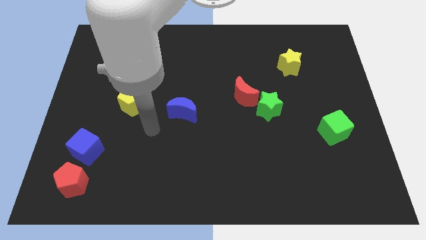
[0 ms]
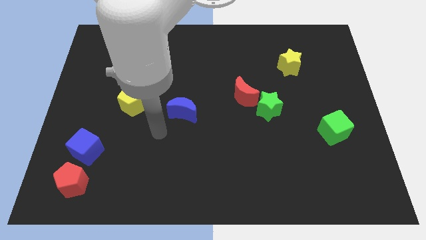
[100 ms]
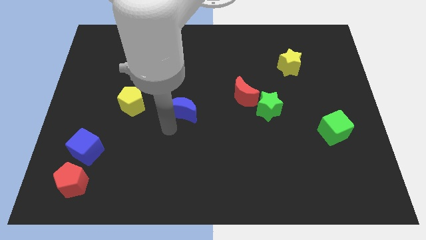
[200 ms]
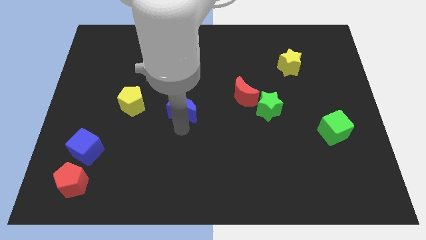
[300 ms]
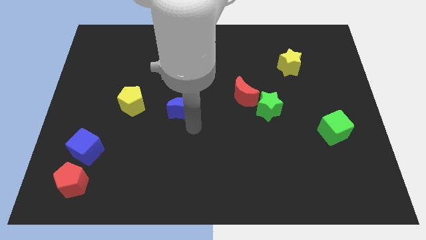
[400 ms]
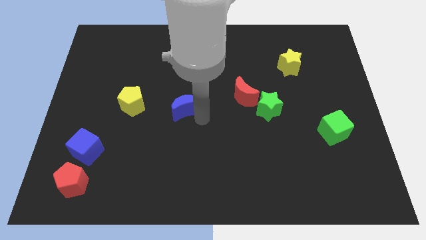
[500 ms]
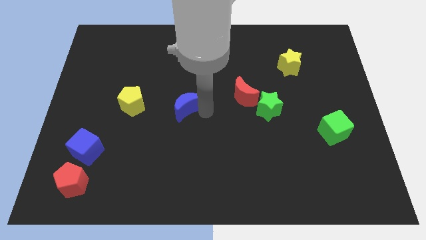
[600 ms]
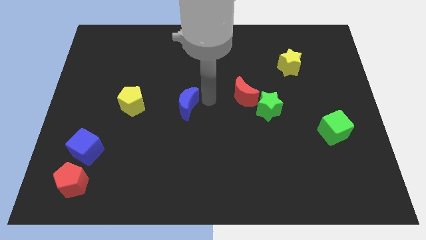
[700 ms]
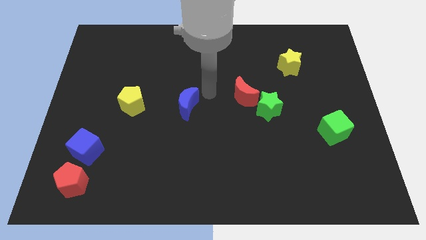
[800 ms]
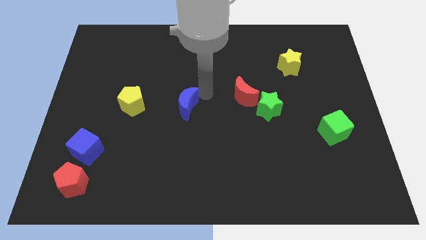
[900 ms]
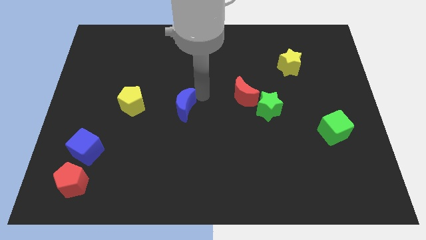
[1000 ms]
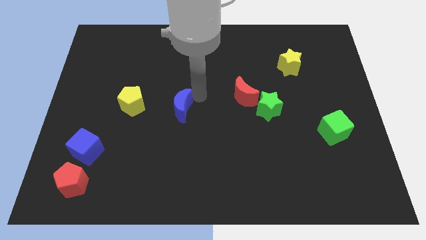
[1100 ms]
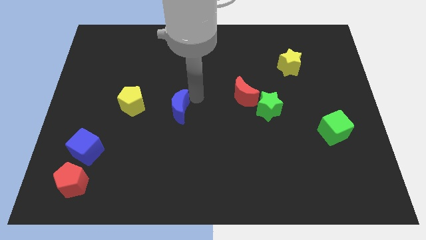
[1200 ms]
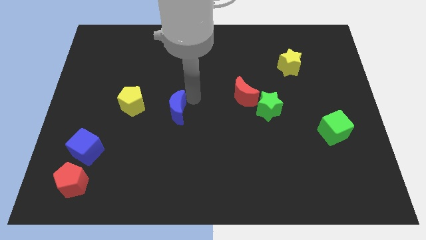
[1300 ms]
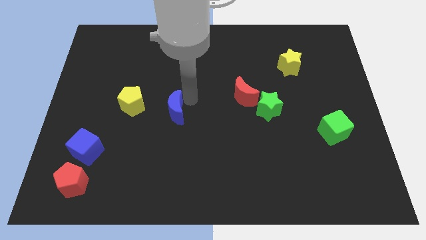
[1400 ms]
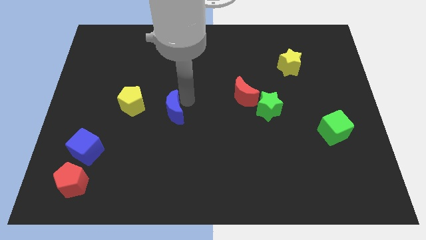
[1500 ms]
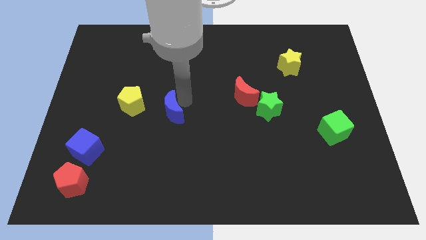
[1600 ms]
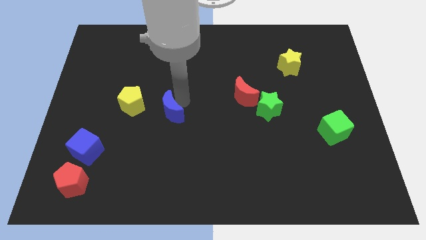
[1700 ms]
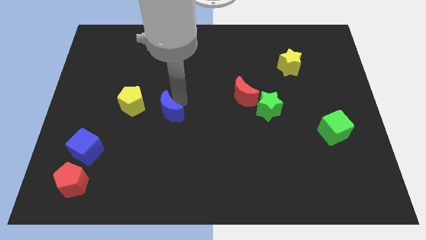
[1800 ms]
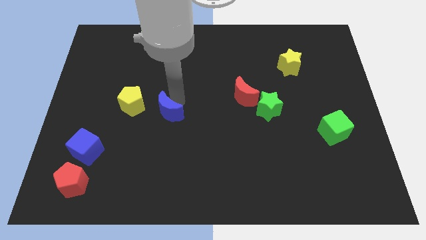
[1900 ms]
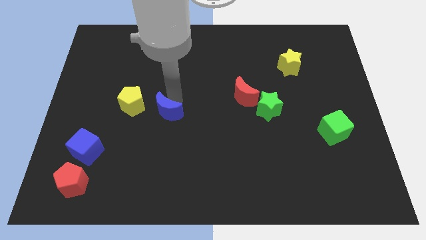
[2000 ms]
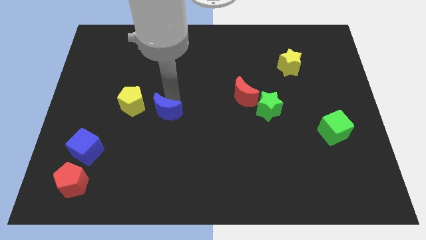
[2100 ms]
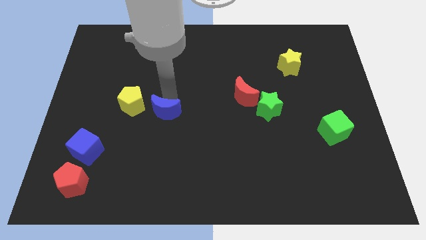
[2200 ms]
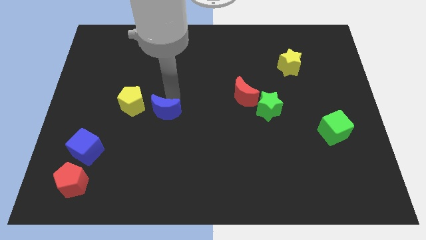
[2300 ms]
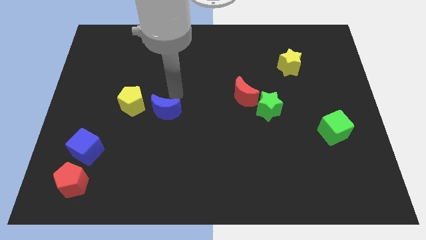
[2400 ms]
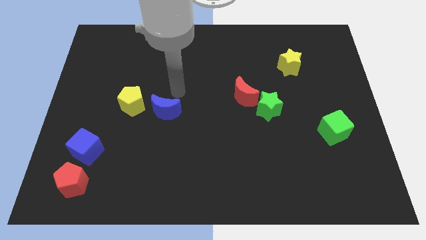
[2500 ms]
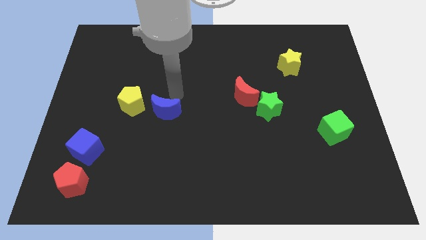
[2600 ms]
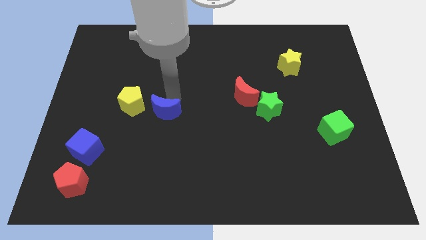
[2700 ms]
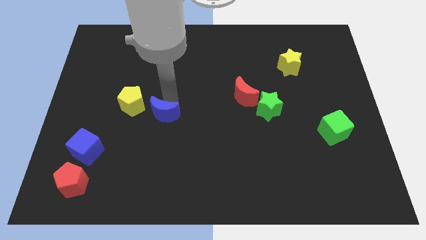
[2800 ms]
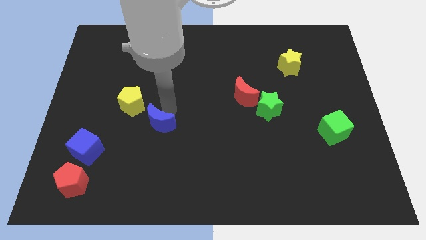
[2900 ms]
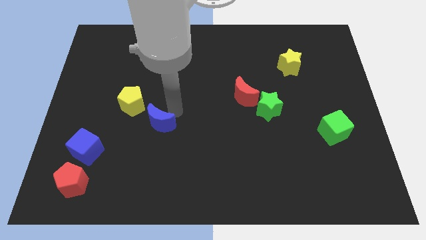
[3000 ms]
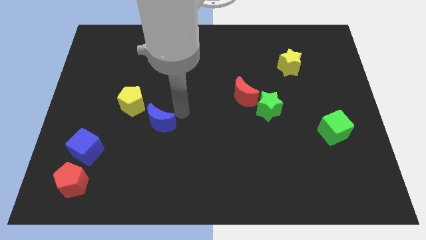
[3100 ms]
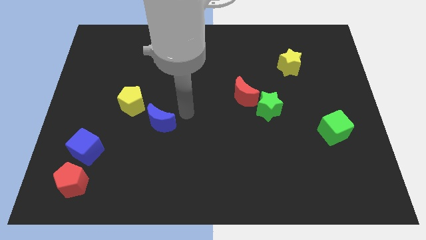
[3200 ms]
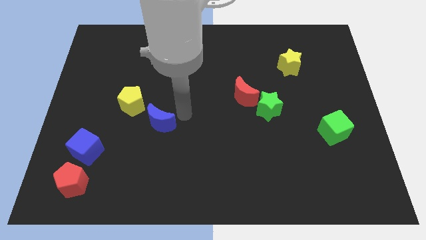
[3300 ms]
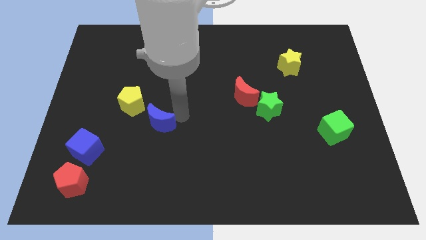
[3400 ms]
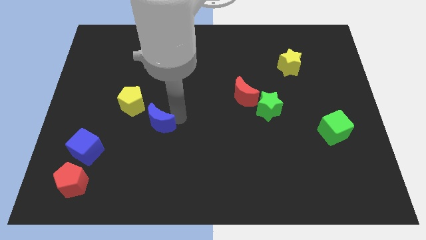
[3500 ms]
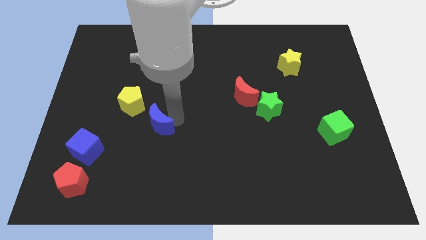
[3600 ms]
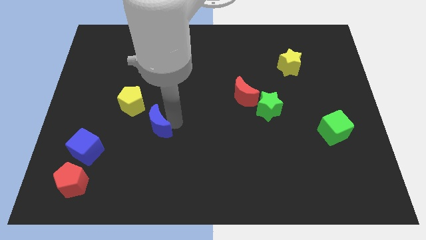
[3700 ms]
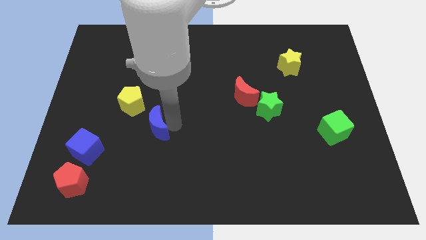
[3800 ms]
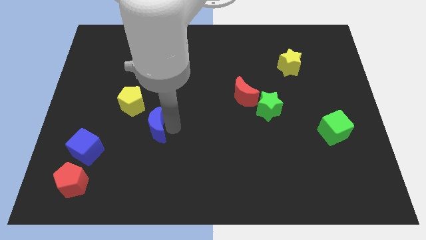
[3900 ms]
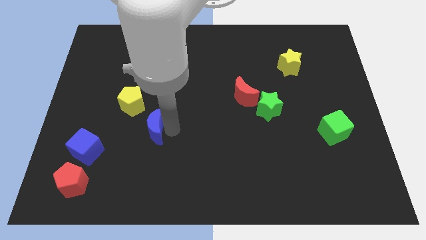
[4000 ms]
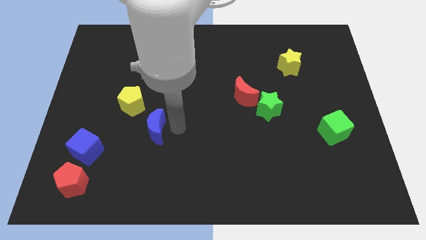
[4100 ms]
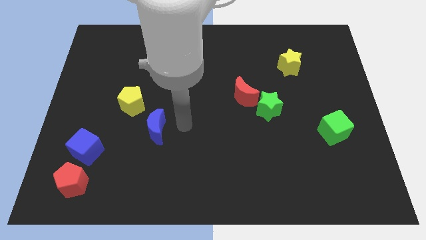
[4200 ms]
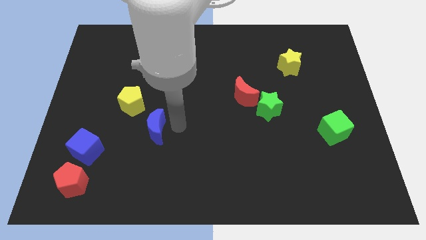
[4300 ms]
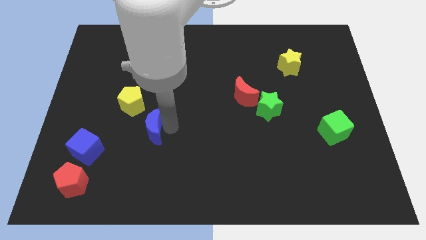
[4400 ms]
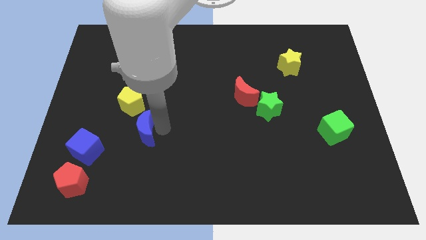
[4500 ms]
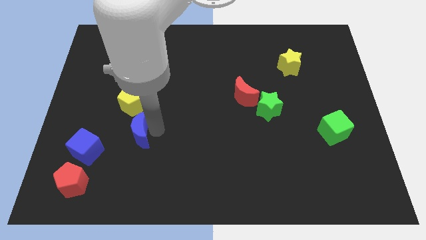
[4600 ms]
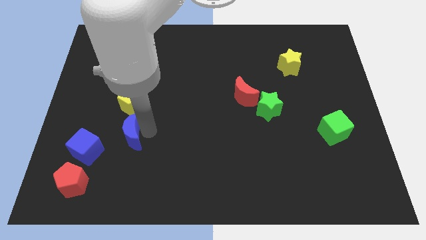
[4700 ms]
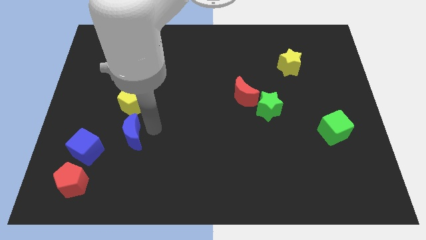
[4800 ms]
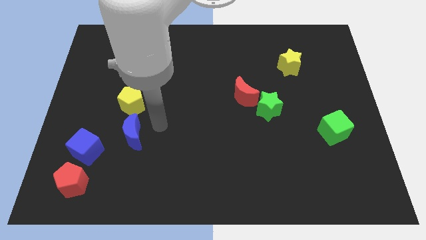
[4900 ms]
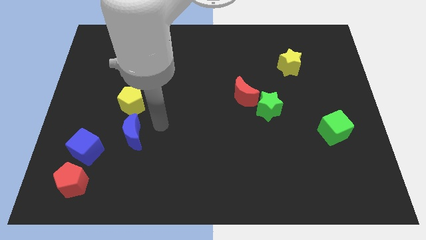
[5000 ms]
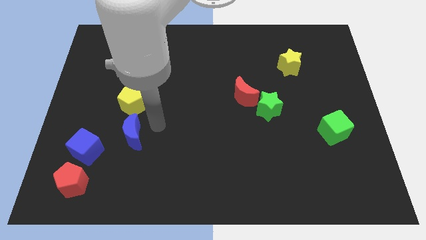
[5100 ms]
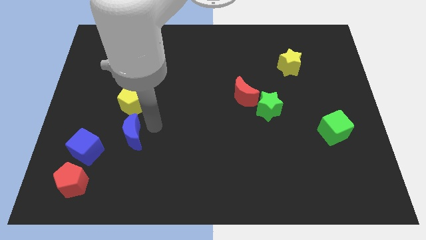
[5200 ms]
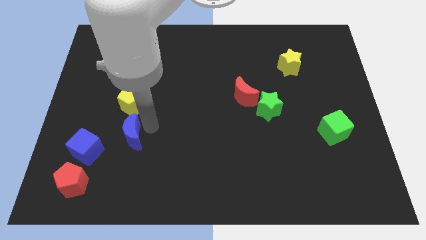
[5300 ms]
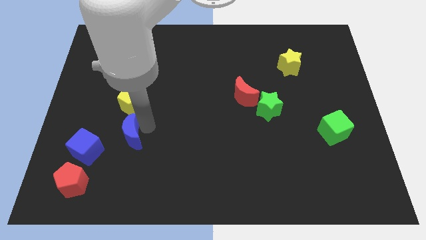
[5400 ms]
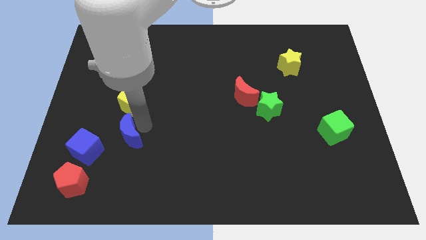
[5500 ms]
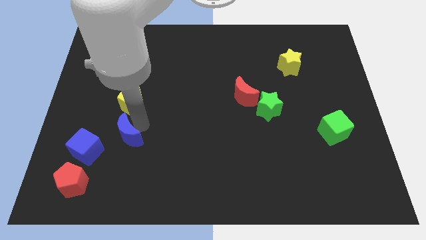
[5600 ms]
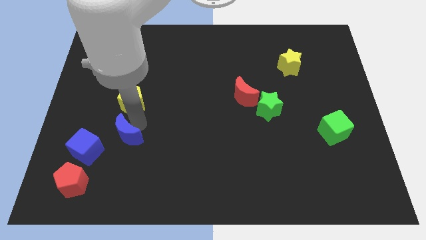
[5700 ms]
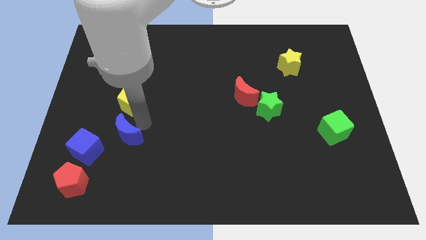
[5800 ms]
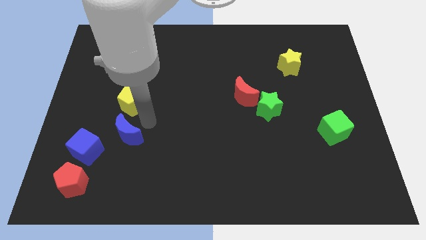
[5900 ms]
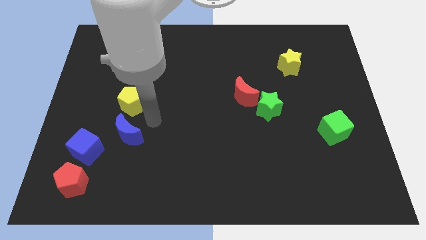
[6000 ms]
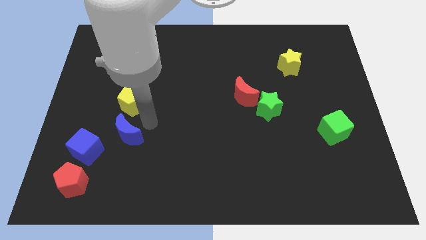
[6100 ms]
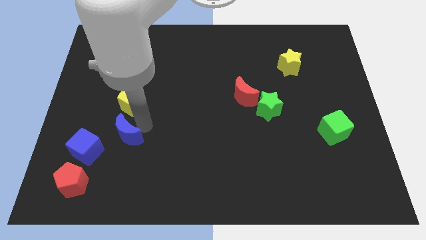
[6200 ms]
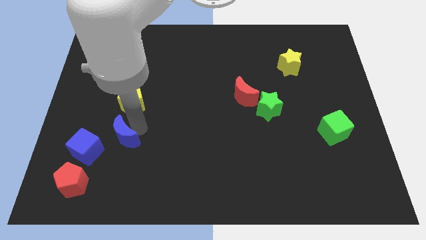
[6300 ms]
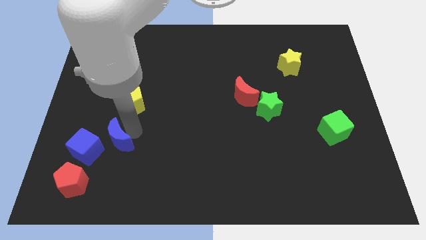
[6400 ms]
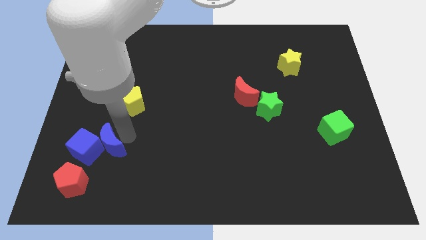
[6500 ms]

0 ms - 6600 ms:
put the blue moon to the blue cube

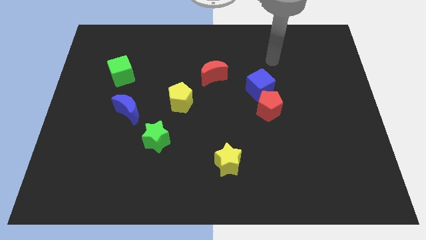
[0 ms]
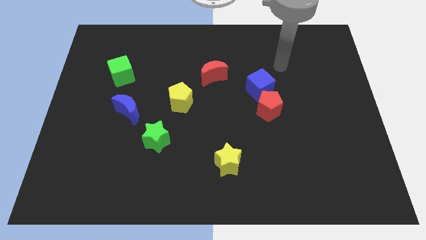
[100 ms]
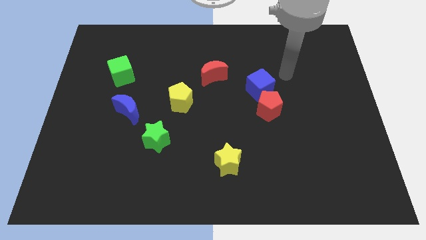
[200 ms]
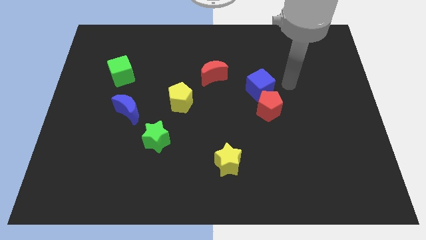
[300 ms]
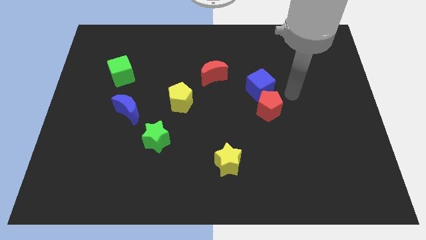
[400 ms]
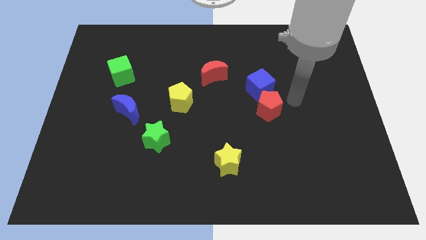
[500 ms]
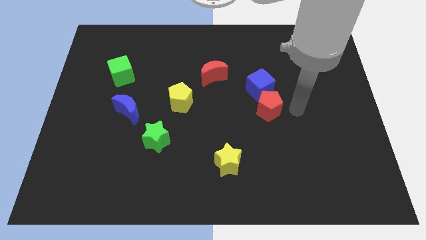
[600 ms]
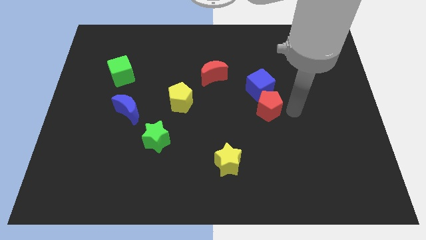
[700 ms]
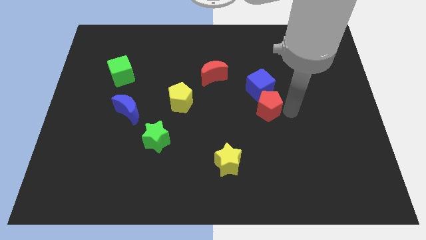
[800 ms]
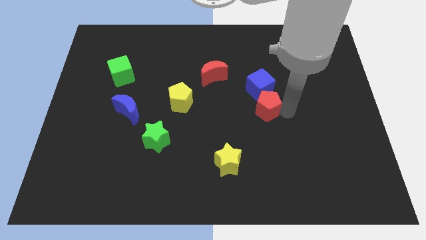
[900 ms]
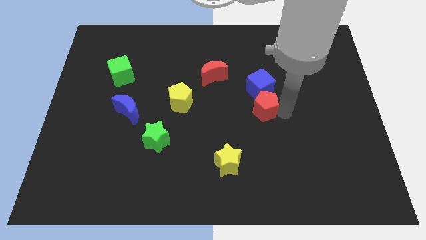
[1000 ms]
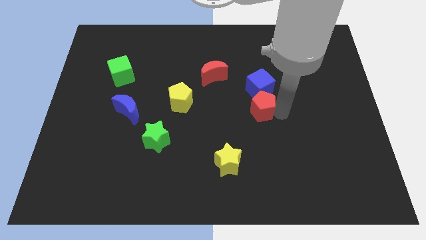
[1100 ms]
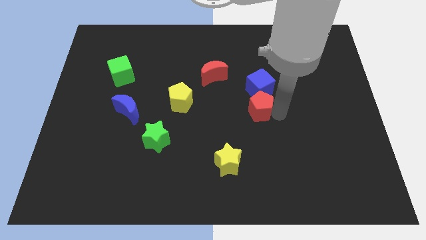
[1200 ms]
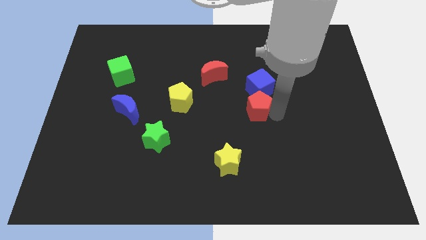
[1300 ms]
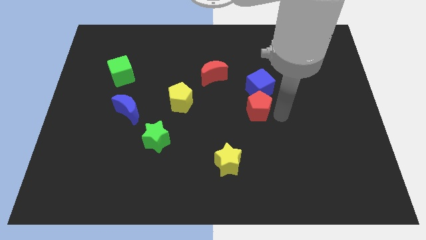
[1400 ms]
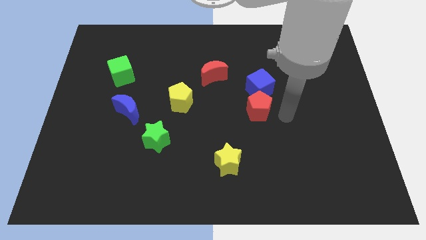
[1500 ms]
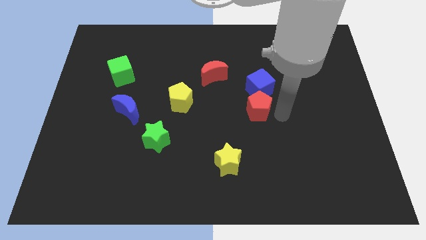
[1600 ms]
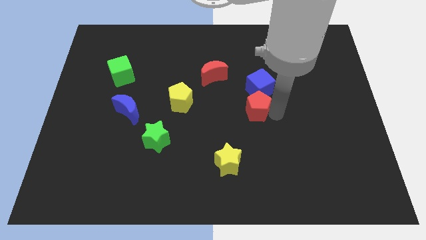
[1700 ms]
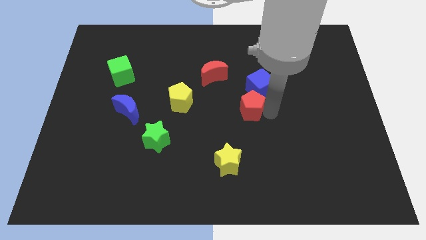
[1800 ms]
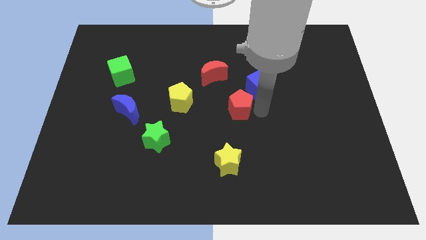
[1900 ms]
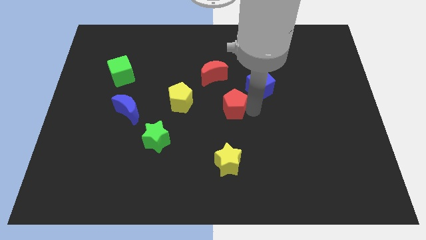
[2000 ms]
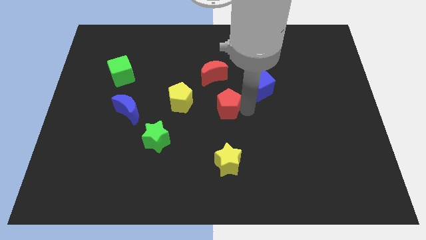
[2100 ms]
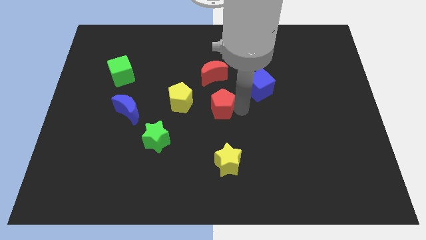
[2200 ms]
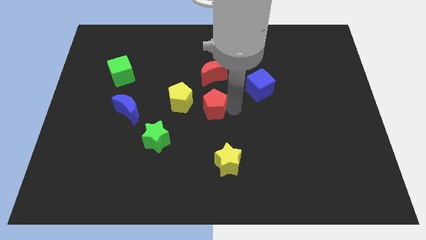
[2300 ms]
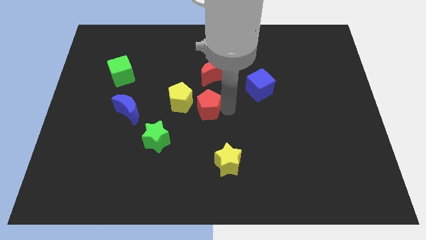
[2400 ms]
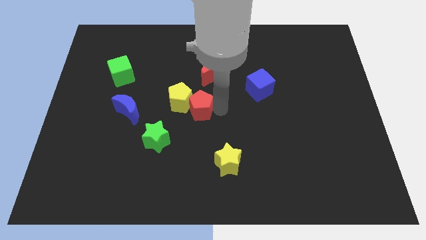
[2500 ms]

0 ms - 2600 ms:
move the red pentagon towards the yellow pentagon
